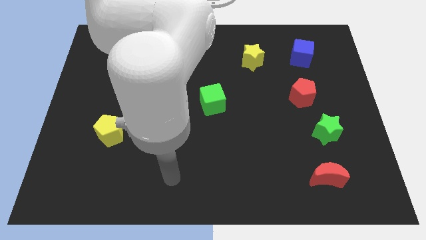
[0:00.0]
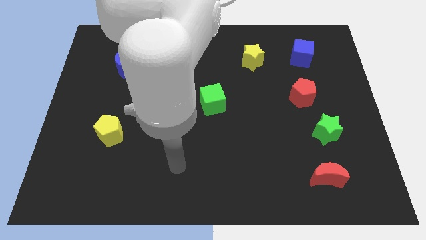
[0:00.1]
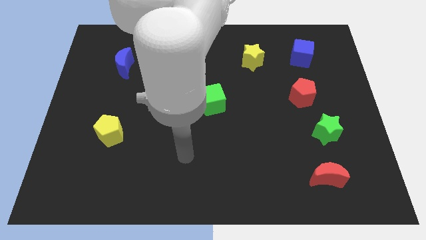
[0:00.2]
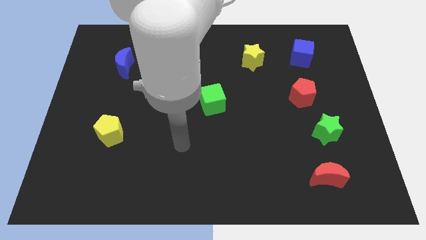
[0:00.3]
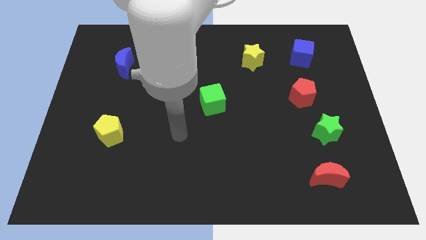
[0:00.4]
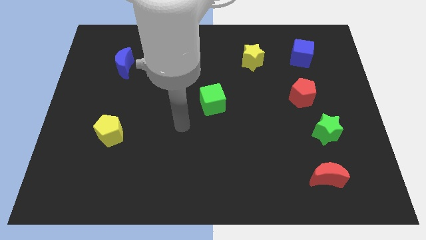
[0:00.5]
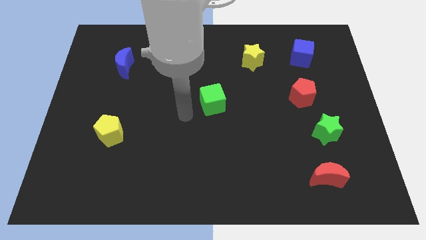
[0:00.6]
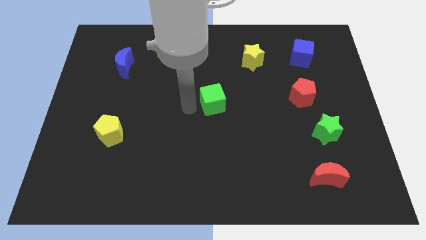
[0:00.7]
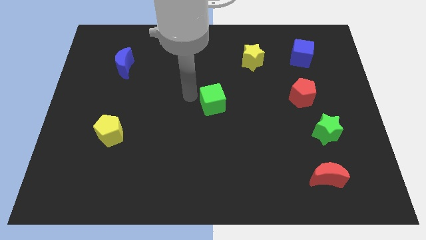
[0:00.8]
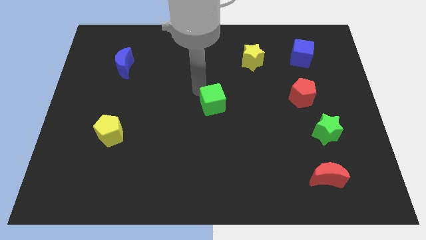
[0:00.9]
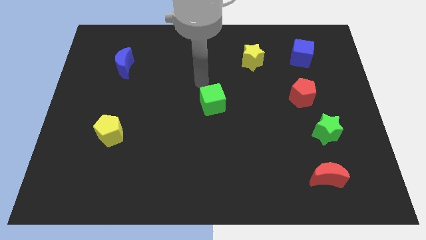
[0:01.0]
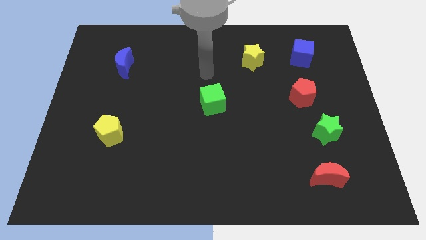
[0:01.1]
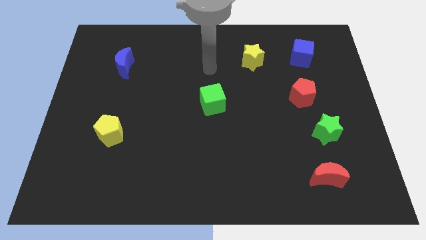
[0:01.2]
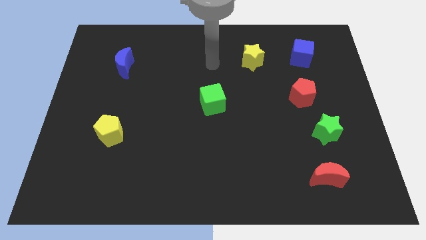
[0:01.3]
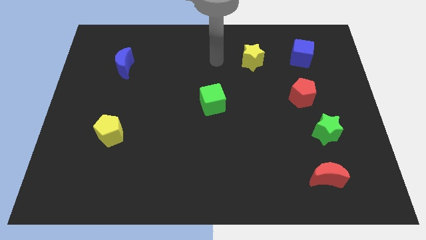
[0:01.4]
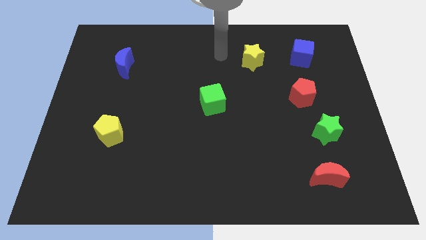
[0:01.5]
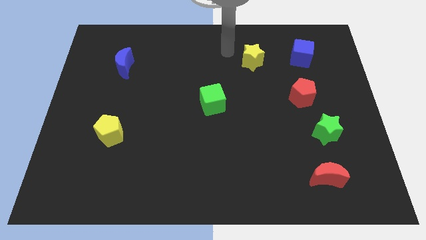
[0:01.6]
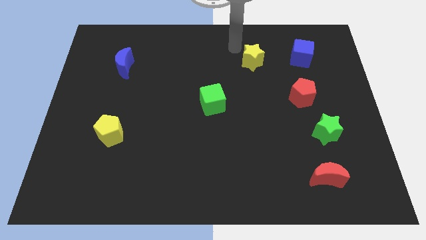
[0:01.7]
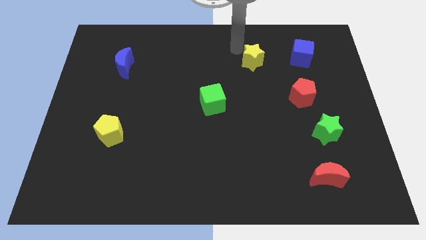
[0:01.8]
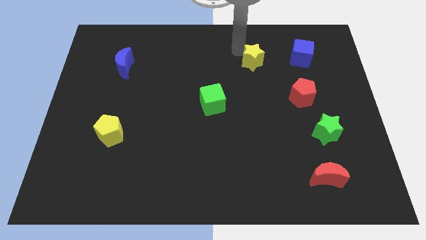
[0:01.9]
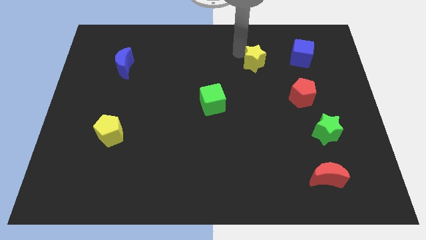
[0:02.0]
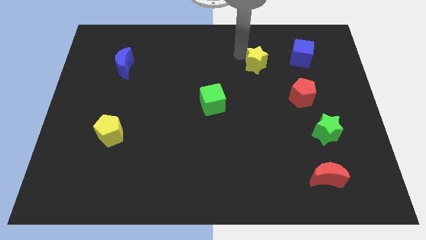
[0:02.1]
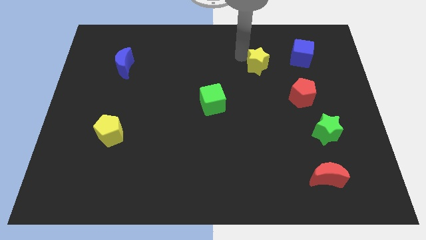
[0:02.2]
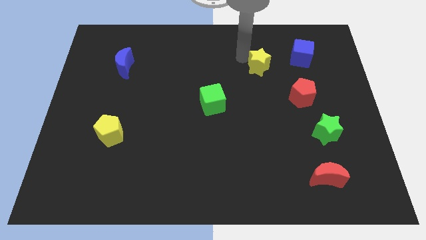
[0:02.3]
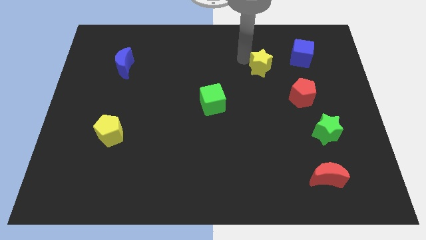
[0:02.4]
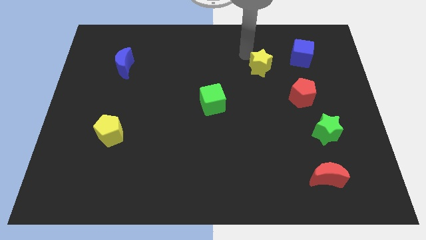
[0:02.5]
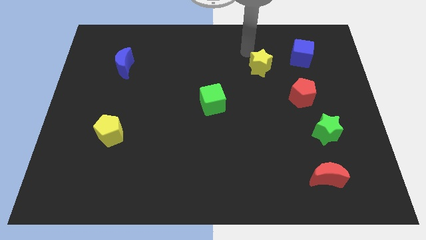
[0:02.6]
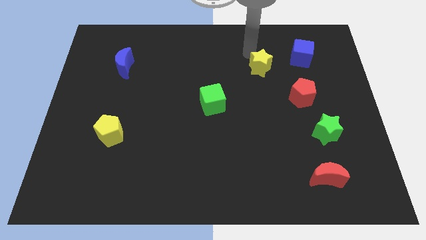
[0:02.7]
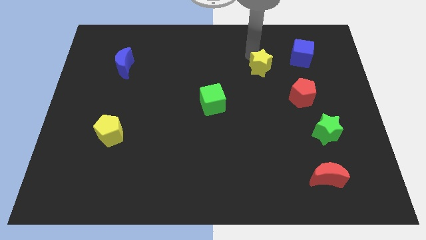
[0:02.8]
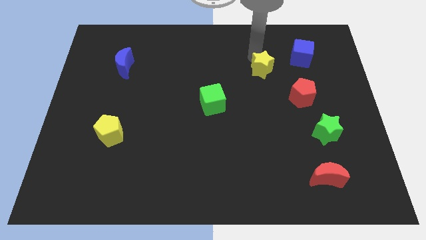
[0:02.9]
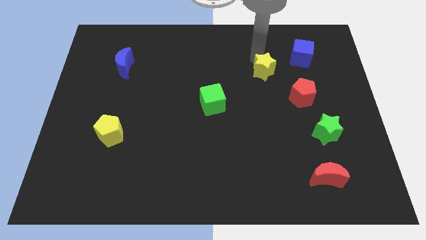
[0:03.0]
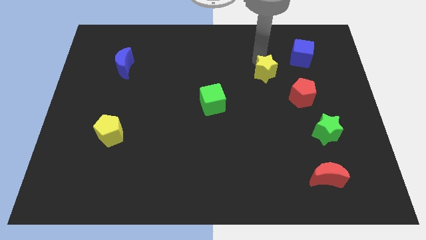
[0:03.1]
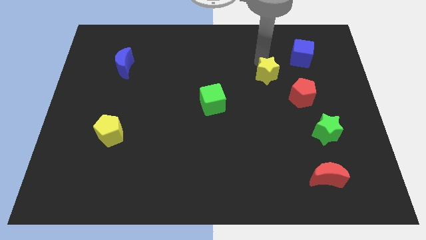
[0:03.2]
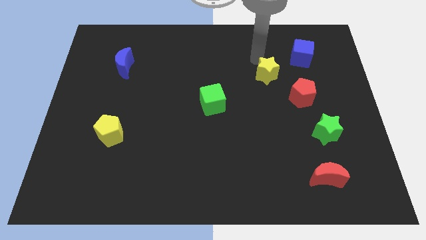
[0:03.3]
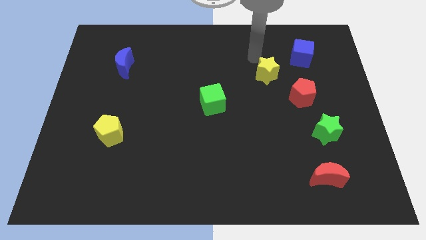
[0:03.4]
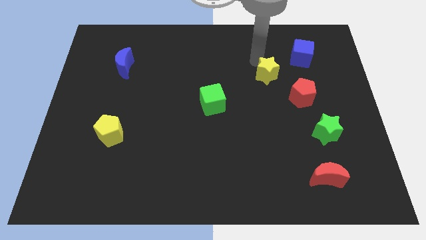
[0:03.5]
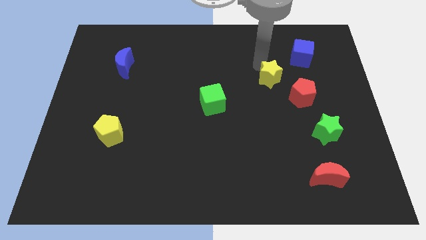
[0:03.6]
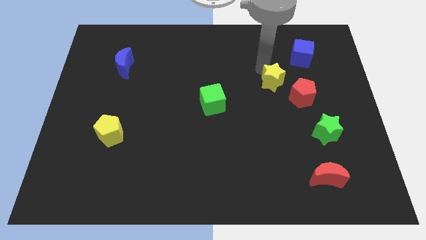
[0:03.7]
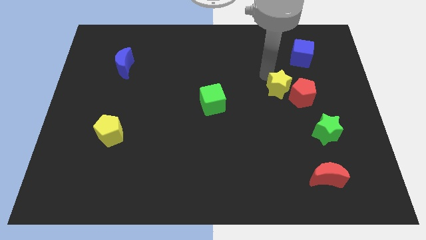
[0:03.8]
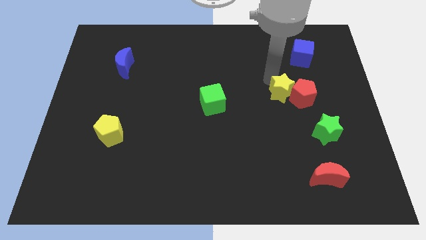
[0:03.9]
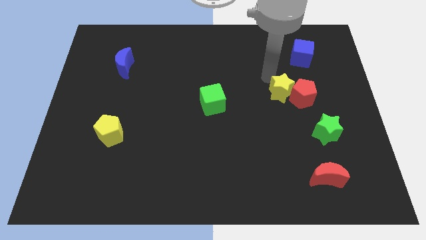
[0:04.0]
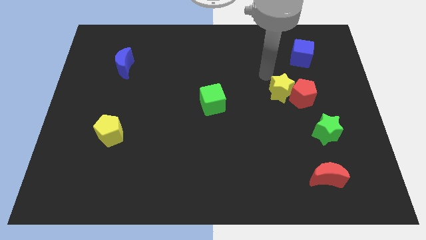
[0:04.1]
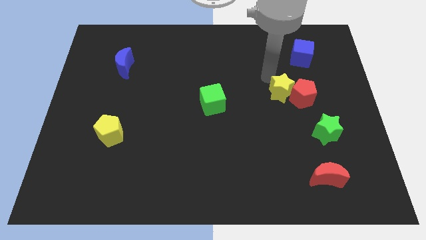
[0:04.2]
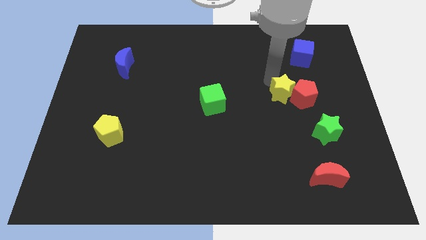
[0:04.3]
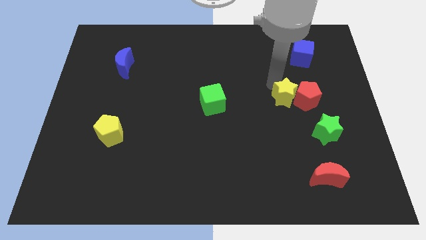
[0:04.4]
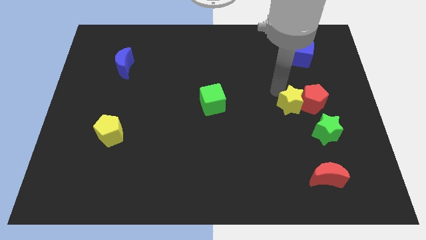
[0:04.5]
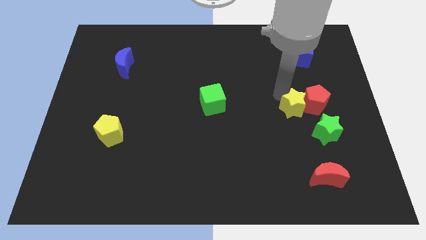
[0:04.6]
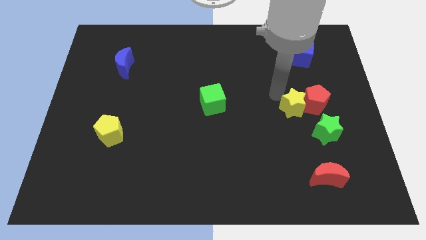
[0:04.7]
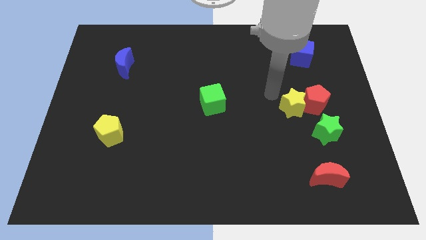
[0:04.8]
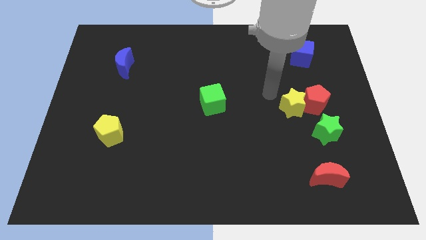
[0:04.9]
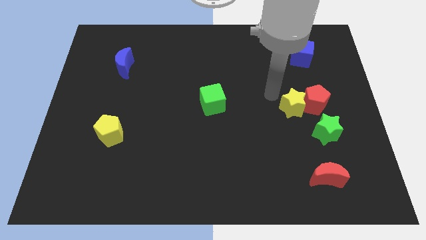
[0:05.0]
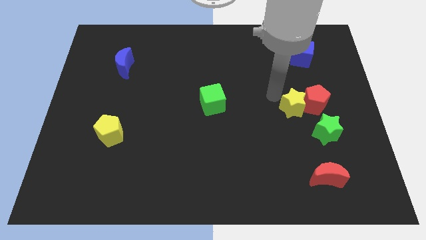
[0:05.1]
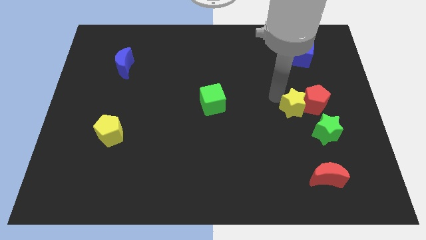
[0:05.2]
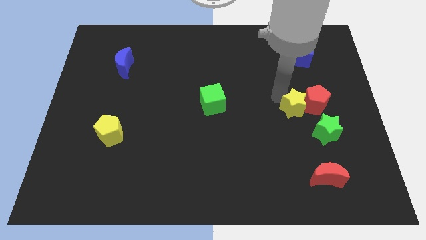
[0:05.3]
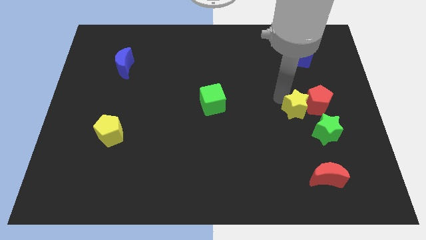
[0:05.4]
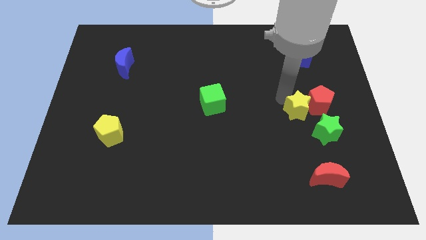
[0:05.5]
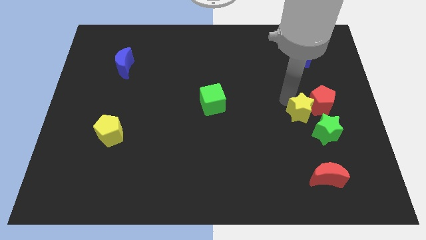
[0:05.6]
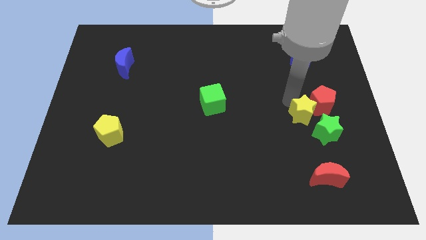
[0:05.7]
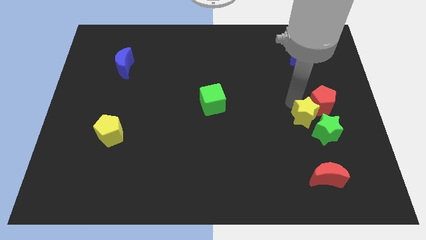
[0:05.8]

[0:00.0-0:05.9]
move the yellow star towards the green star

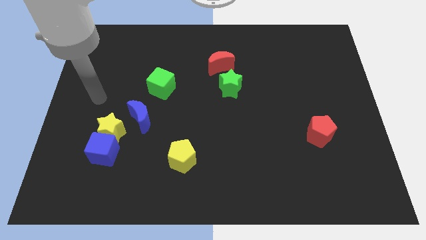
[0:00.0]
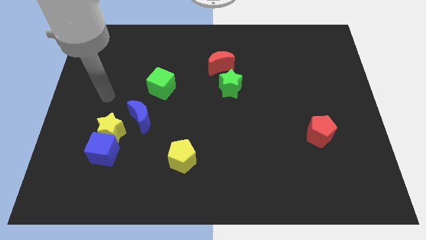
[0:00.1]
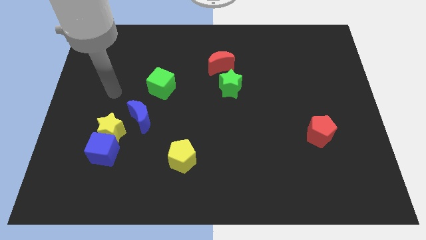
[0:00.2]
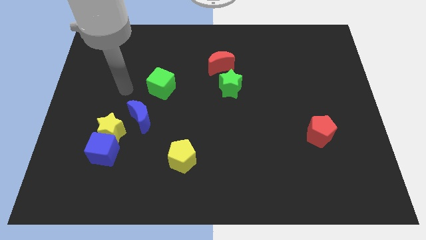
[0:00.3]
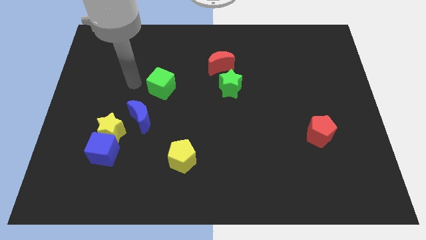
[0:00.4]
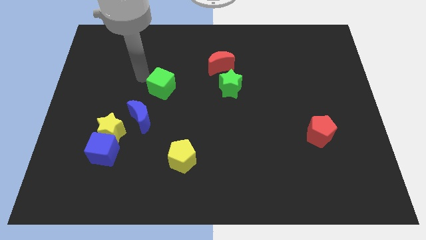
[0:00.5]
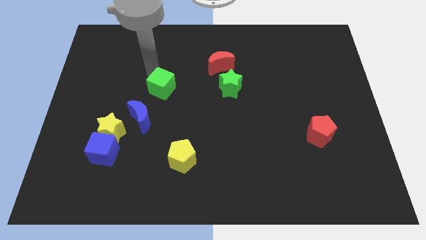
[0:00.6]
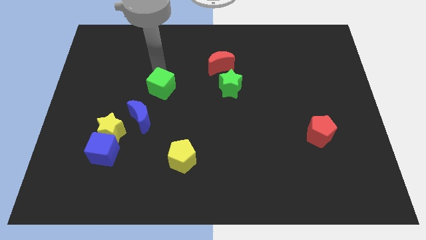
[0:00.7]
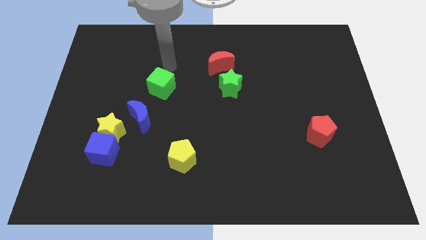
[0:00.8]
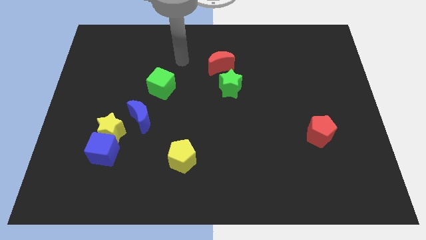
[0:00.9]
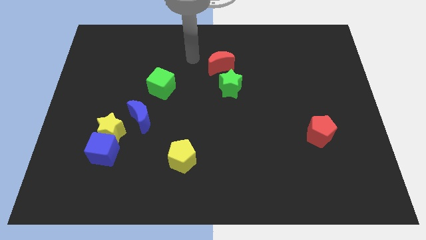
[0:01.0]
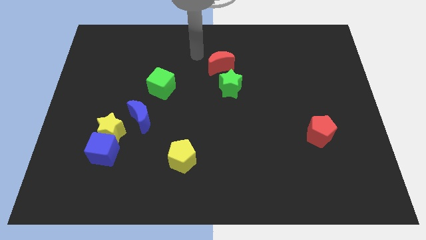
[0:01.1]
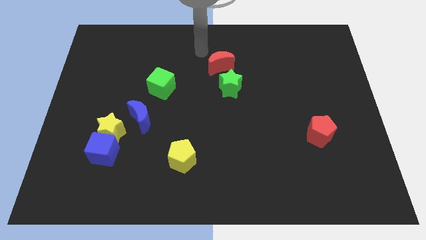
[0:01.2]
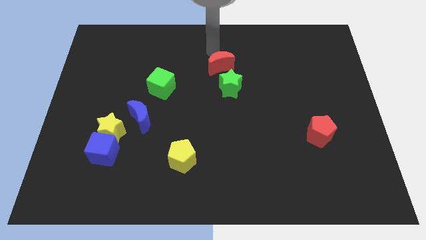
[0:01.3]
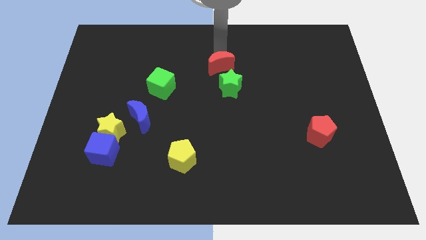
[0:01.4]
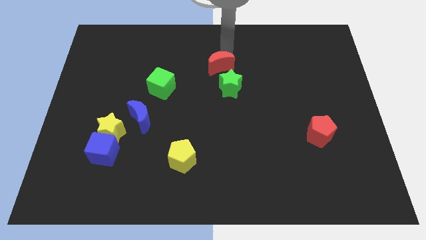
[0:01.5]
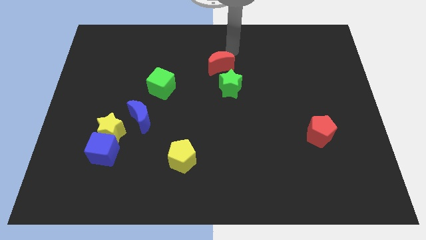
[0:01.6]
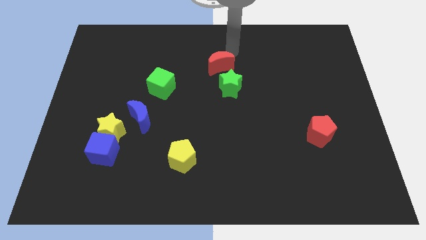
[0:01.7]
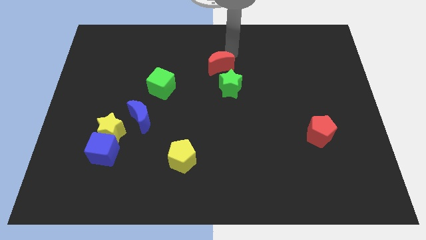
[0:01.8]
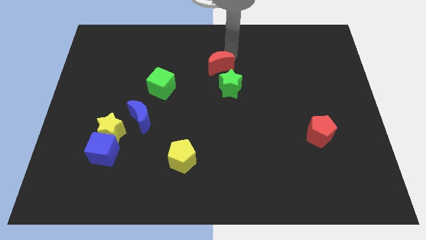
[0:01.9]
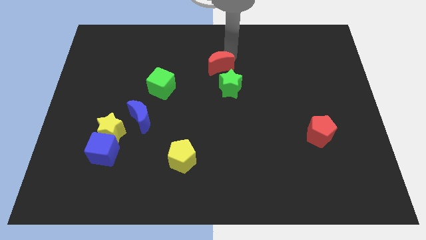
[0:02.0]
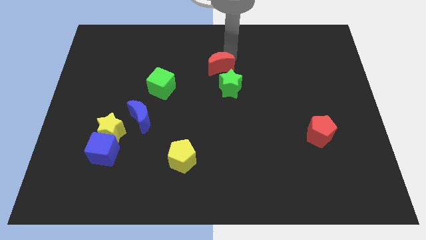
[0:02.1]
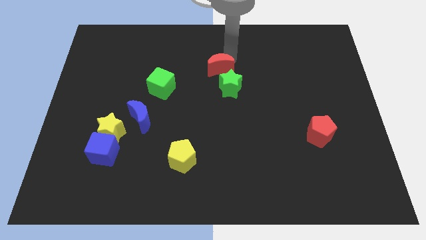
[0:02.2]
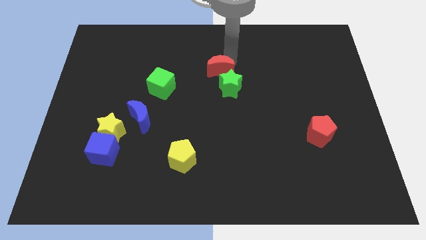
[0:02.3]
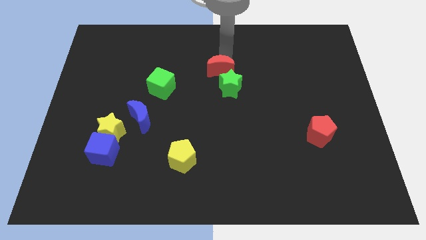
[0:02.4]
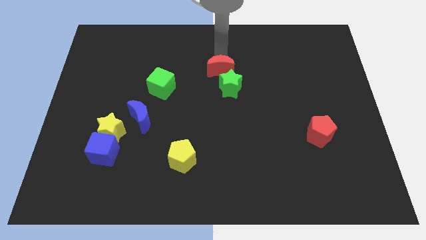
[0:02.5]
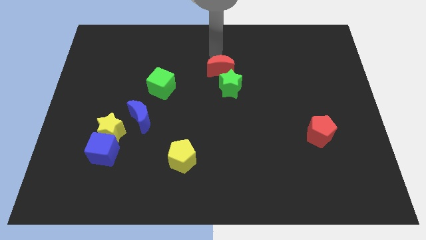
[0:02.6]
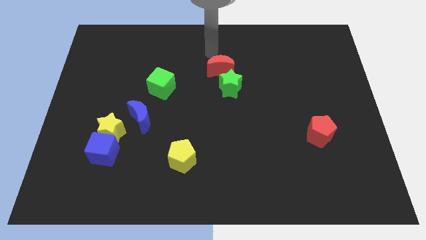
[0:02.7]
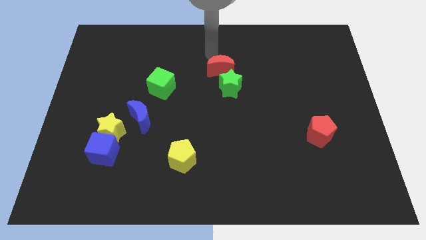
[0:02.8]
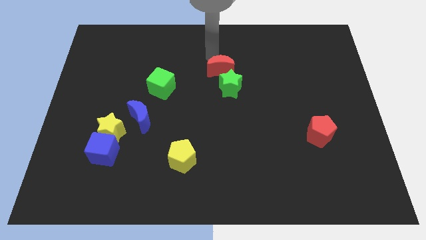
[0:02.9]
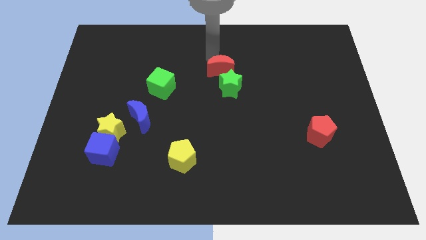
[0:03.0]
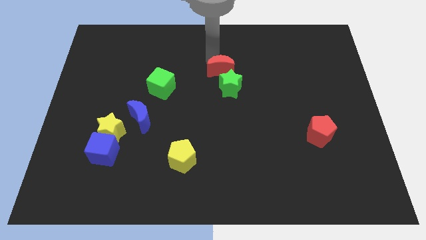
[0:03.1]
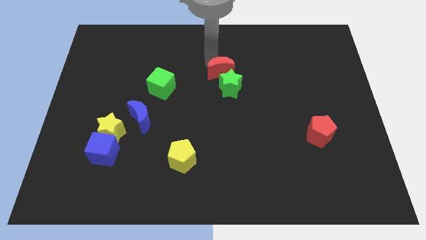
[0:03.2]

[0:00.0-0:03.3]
push the red moon close to the green star
